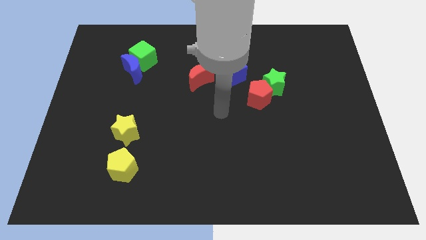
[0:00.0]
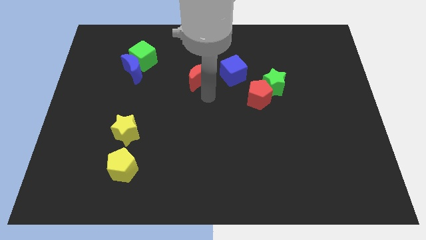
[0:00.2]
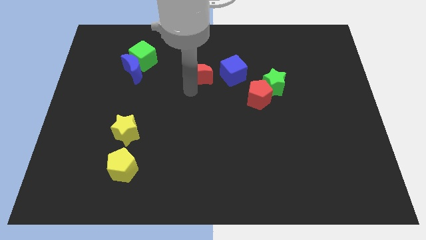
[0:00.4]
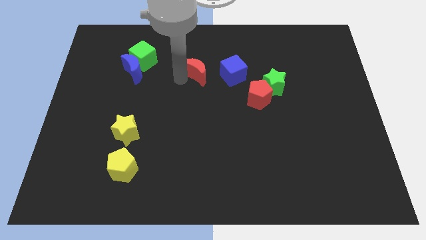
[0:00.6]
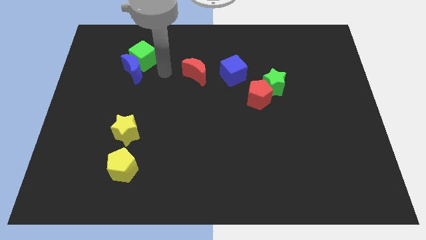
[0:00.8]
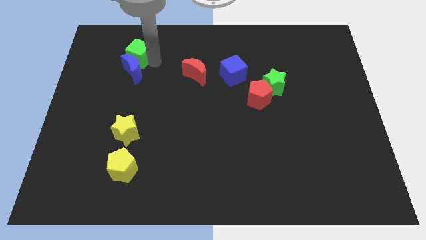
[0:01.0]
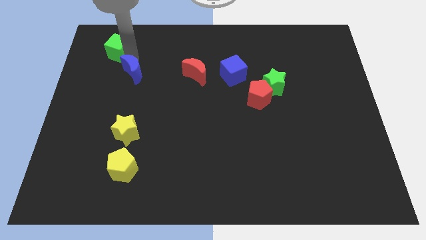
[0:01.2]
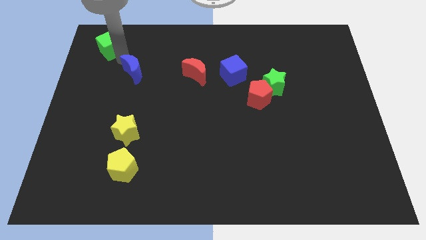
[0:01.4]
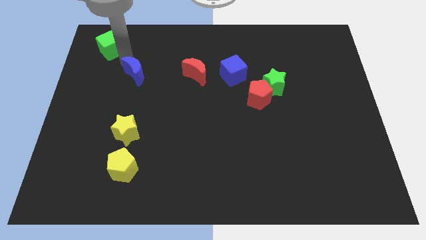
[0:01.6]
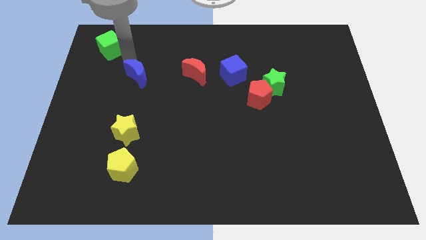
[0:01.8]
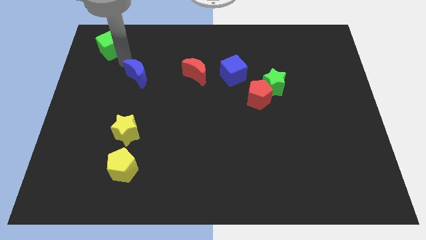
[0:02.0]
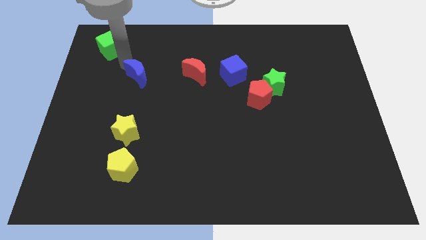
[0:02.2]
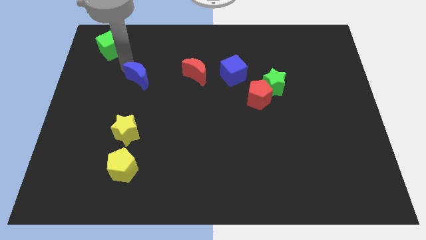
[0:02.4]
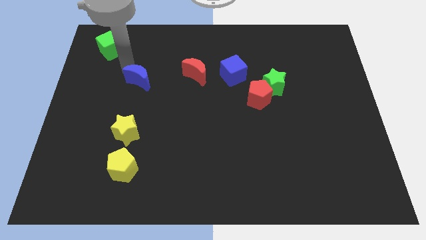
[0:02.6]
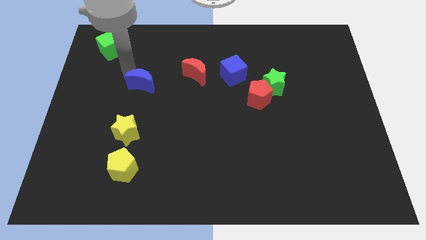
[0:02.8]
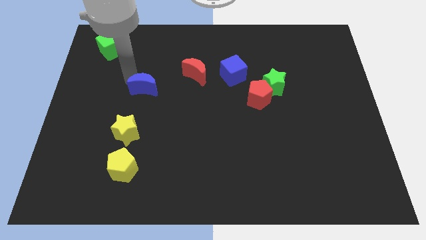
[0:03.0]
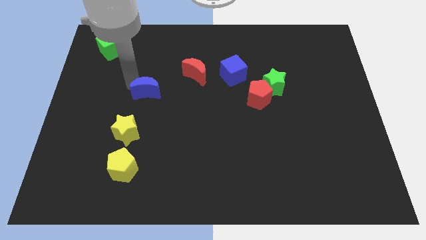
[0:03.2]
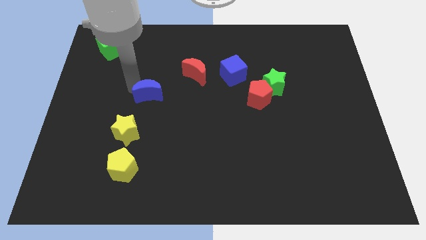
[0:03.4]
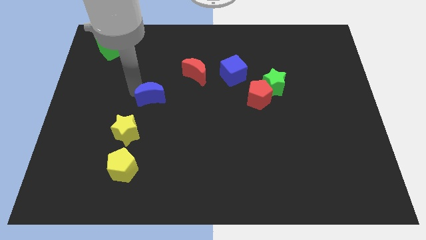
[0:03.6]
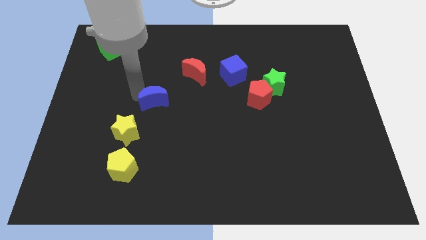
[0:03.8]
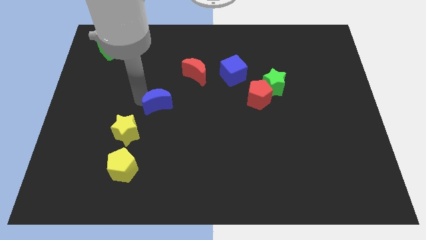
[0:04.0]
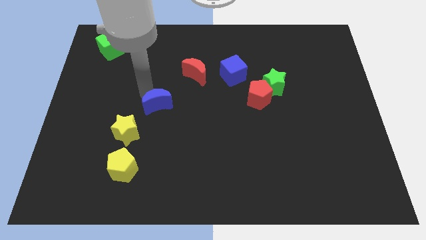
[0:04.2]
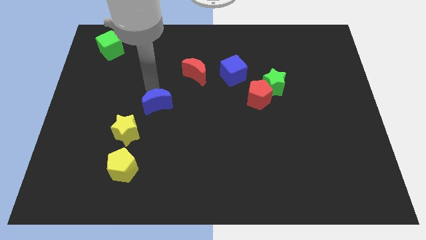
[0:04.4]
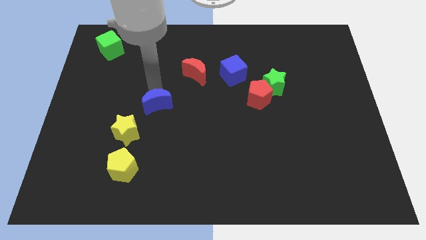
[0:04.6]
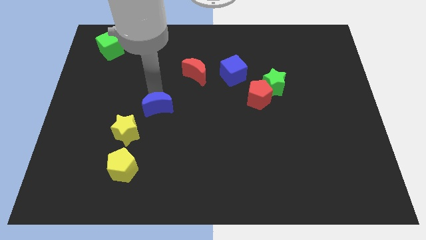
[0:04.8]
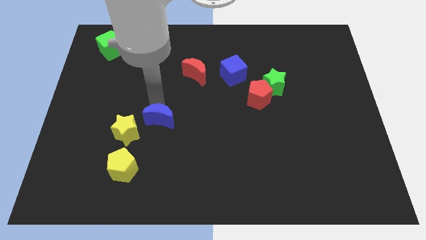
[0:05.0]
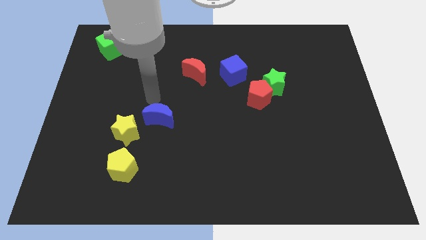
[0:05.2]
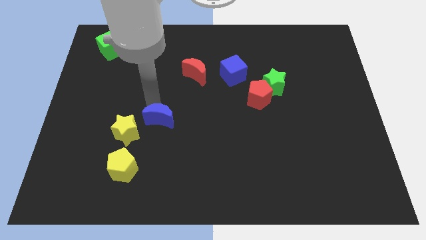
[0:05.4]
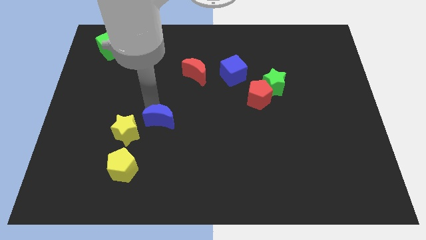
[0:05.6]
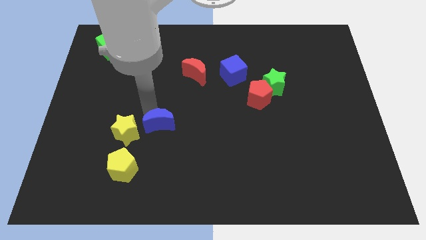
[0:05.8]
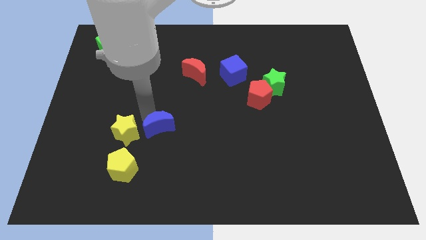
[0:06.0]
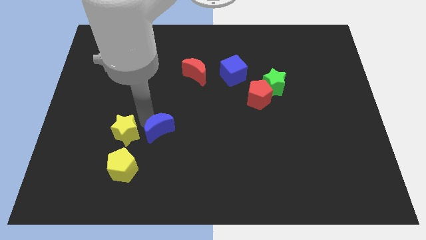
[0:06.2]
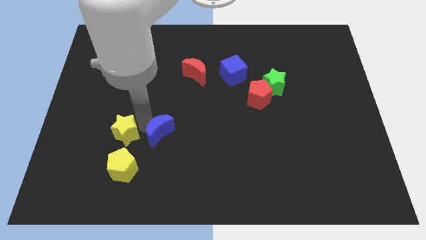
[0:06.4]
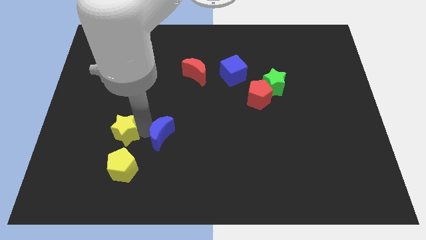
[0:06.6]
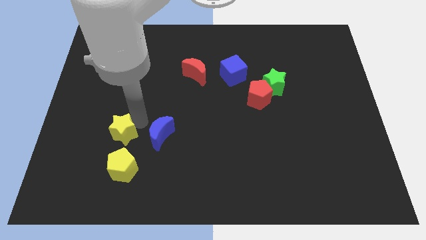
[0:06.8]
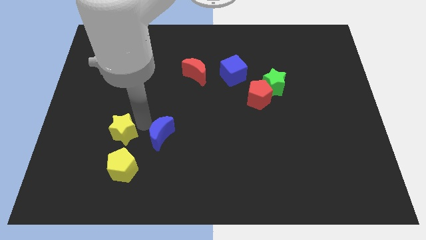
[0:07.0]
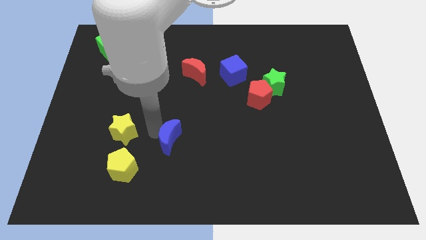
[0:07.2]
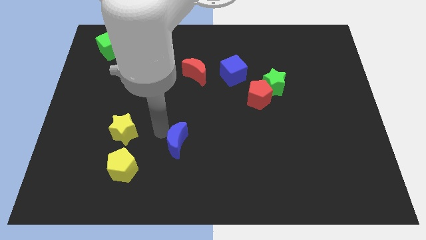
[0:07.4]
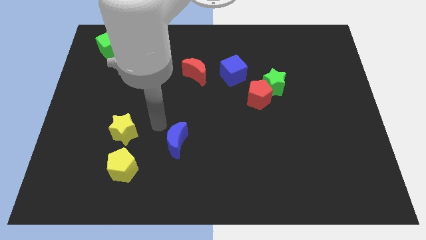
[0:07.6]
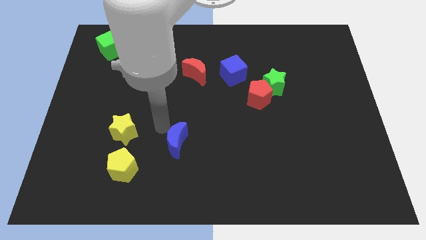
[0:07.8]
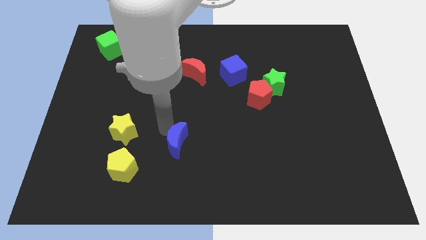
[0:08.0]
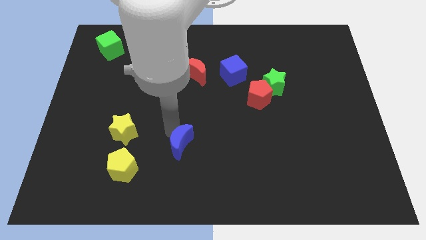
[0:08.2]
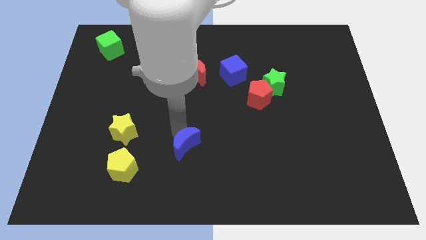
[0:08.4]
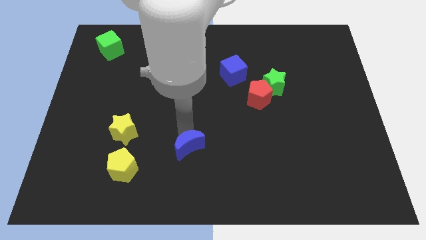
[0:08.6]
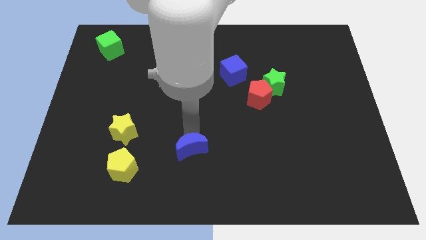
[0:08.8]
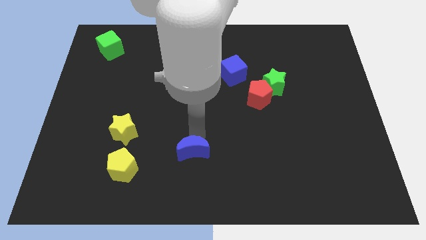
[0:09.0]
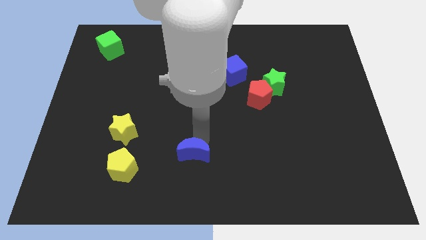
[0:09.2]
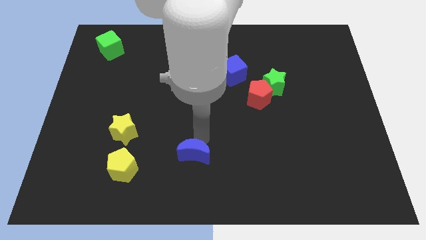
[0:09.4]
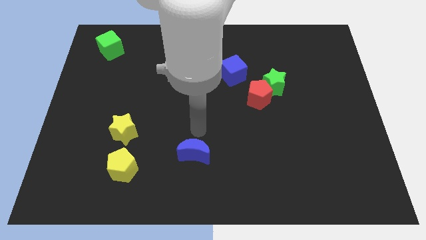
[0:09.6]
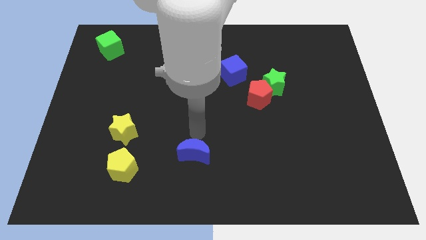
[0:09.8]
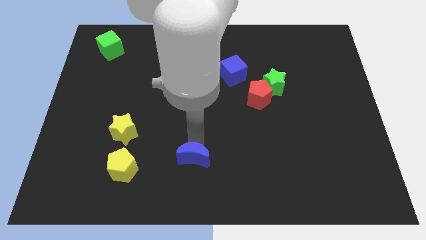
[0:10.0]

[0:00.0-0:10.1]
push the blue moon to the bottom side

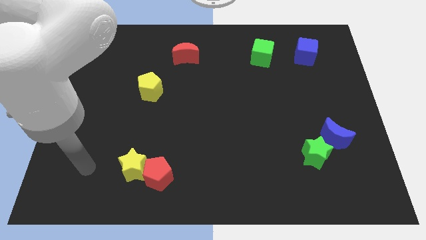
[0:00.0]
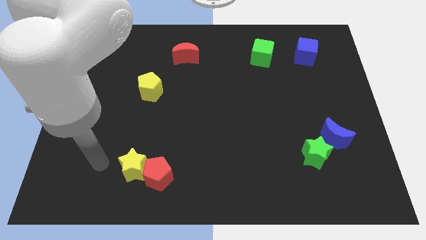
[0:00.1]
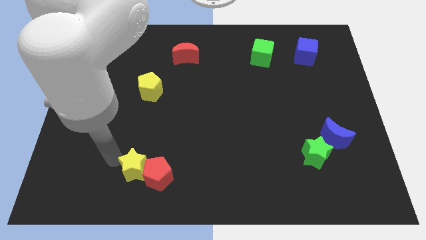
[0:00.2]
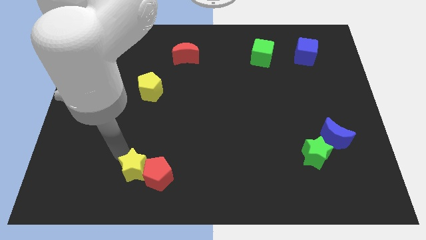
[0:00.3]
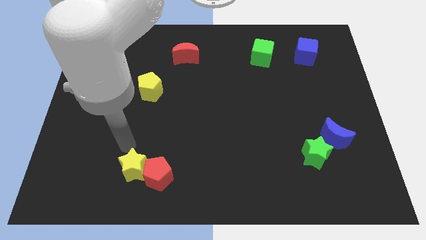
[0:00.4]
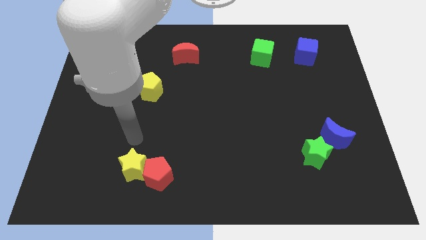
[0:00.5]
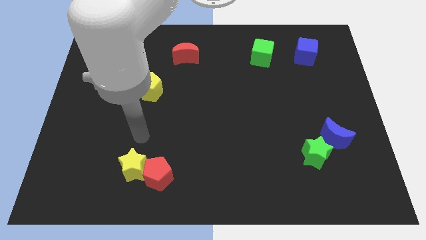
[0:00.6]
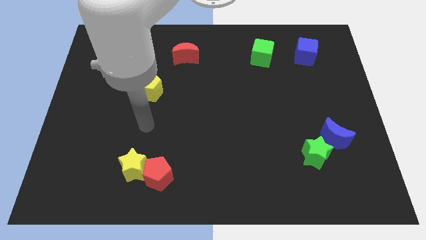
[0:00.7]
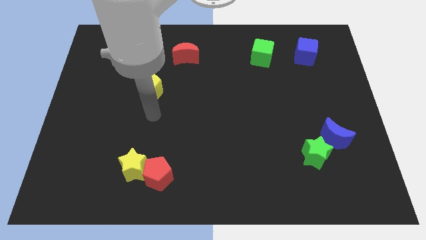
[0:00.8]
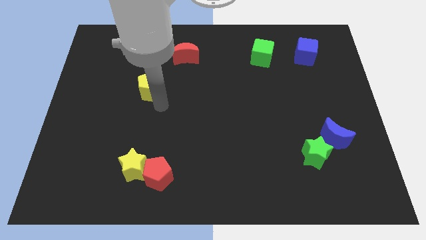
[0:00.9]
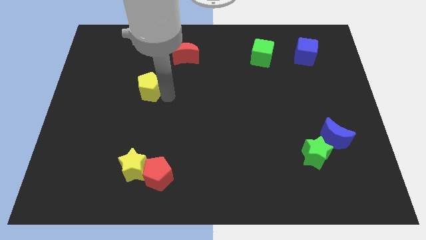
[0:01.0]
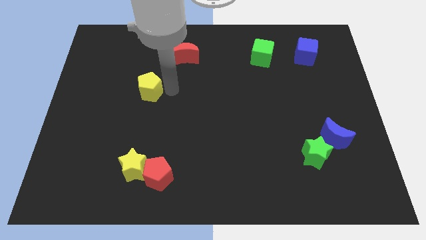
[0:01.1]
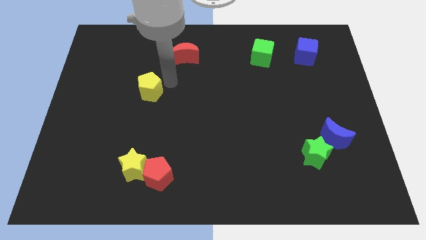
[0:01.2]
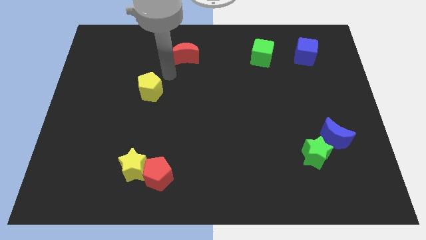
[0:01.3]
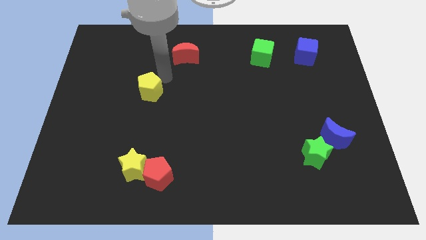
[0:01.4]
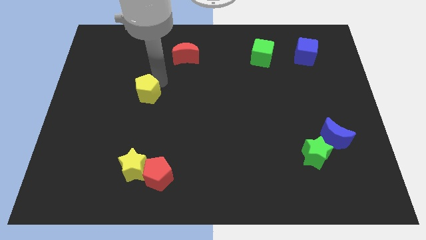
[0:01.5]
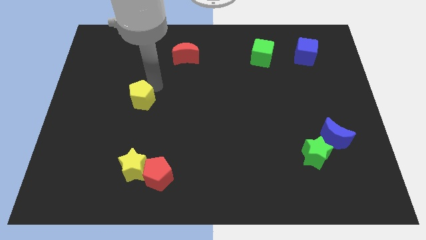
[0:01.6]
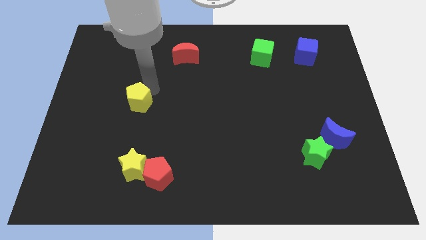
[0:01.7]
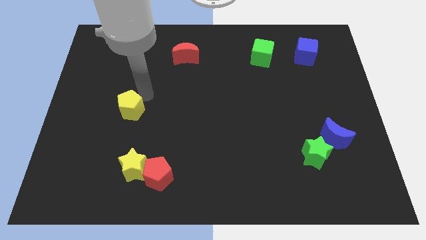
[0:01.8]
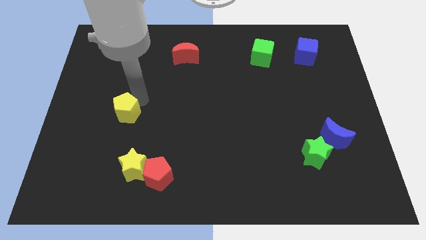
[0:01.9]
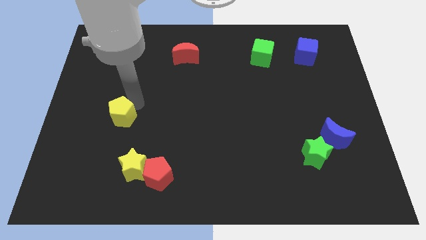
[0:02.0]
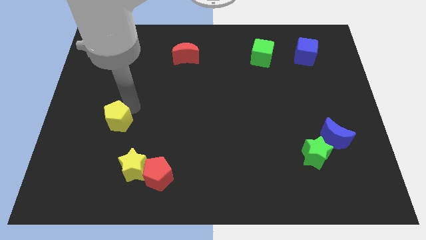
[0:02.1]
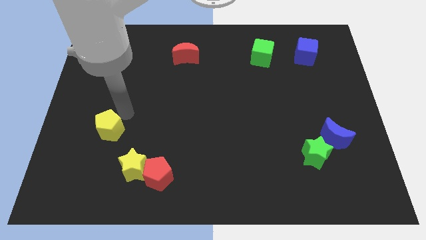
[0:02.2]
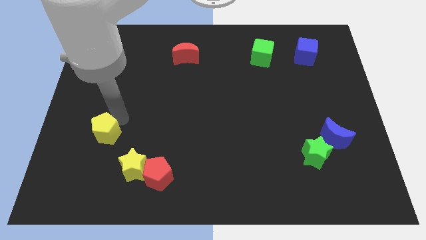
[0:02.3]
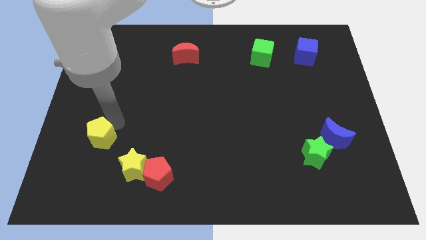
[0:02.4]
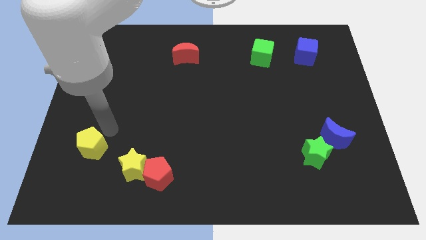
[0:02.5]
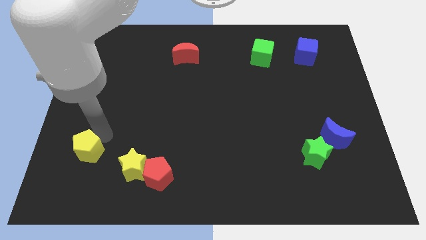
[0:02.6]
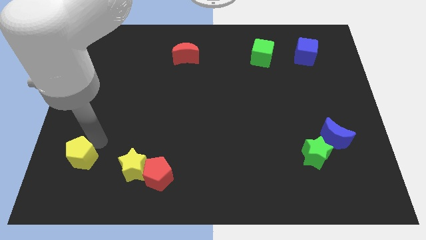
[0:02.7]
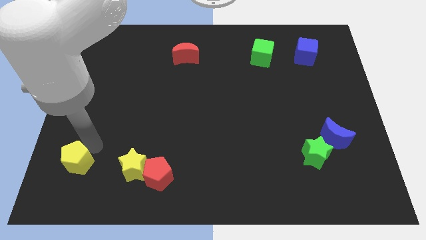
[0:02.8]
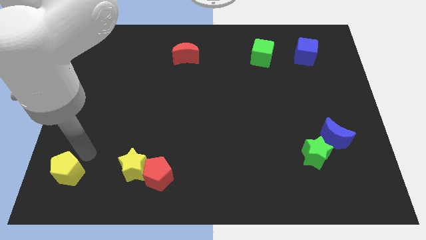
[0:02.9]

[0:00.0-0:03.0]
put the yellow pentagon to the bottom left of the board
